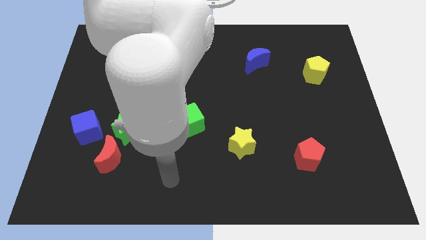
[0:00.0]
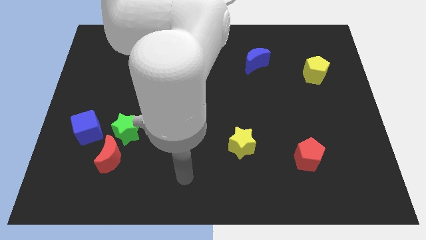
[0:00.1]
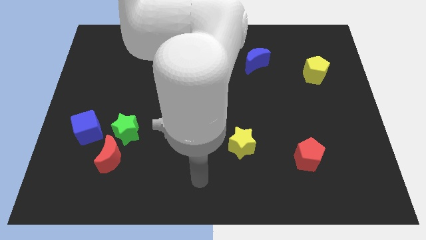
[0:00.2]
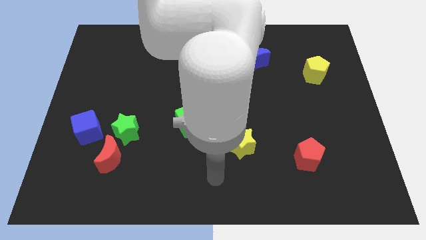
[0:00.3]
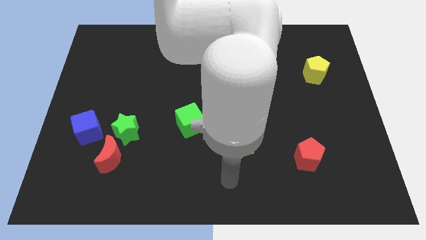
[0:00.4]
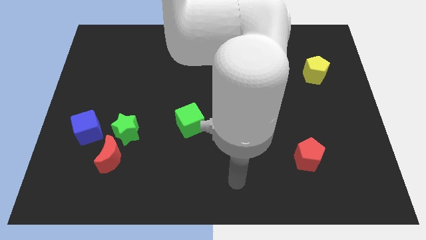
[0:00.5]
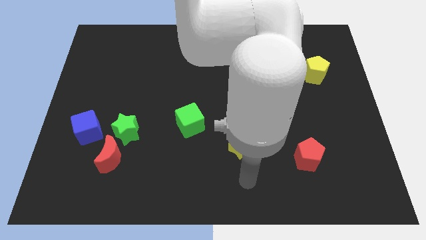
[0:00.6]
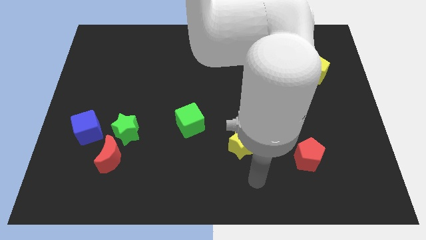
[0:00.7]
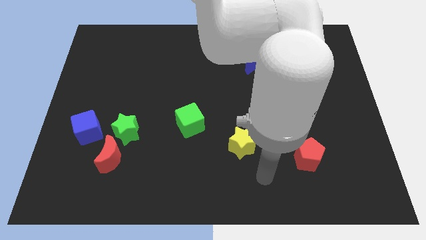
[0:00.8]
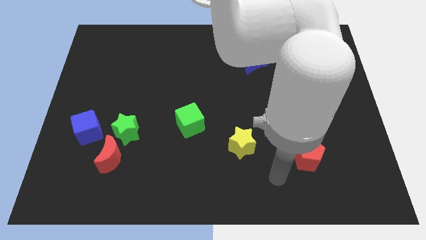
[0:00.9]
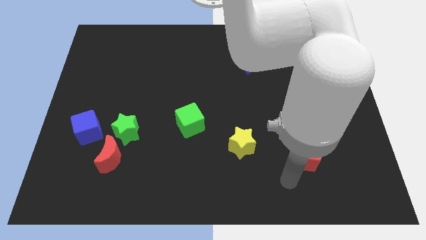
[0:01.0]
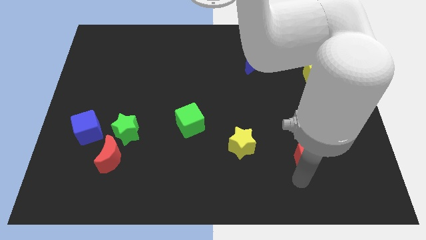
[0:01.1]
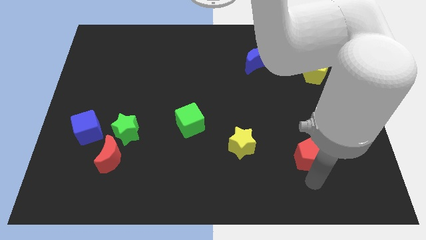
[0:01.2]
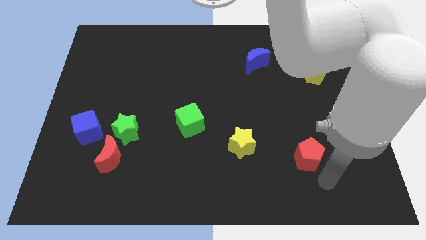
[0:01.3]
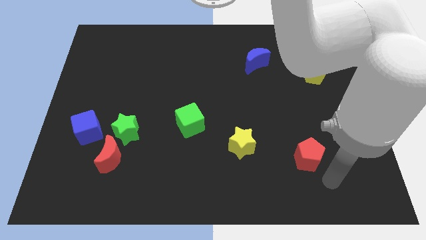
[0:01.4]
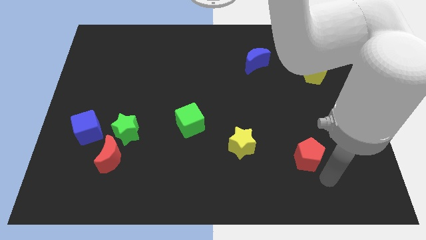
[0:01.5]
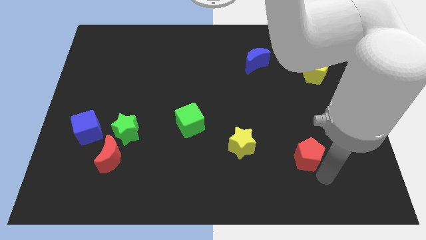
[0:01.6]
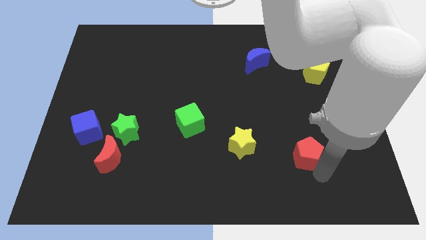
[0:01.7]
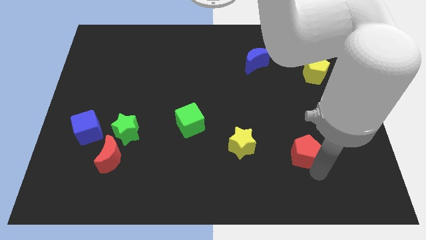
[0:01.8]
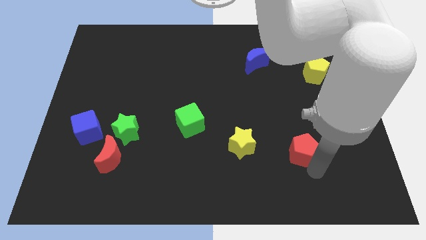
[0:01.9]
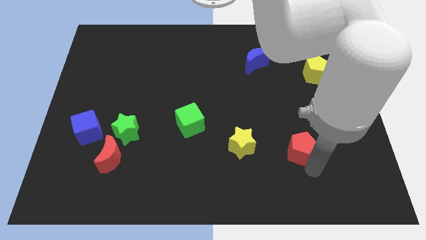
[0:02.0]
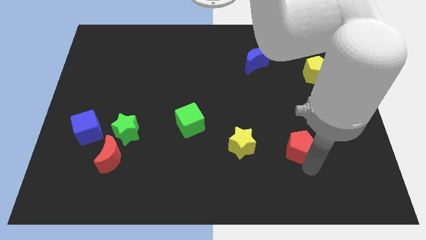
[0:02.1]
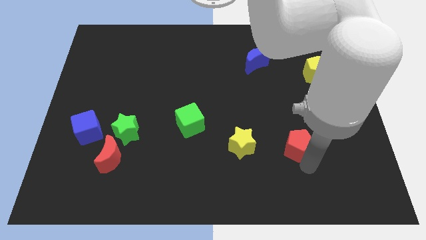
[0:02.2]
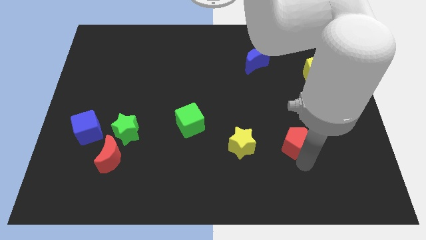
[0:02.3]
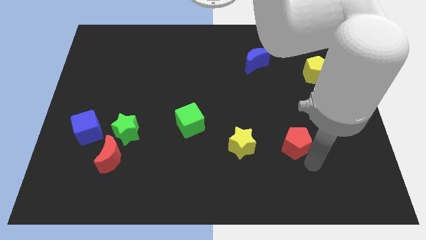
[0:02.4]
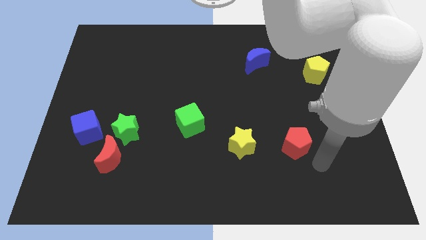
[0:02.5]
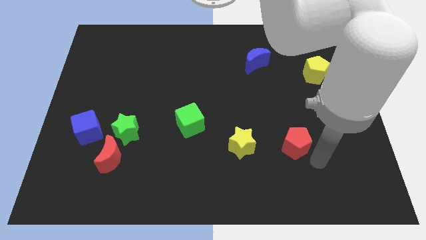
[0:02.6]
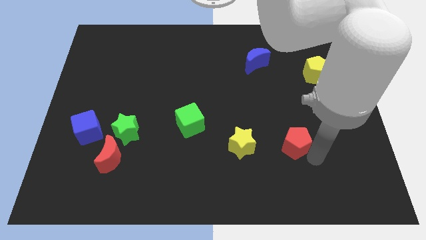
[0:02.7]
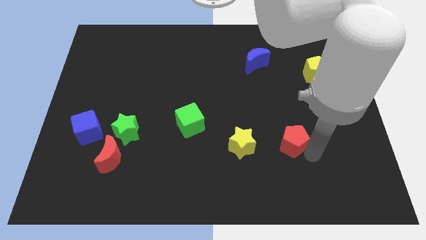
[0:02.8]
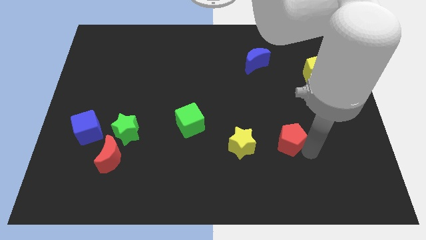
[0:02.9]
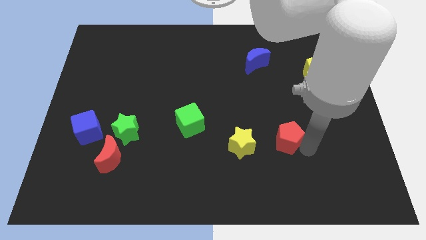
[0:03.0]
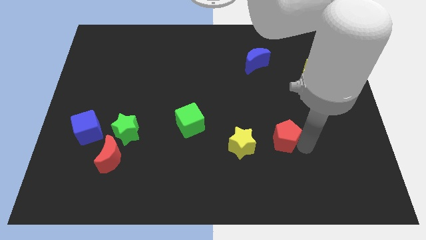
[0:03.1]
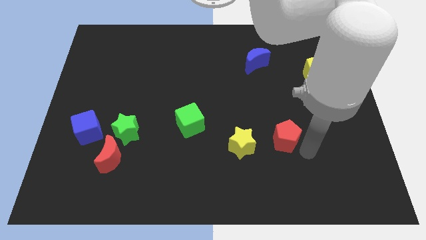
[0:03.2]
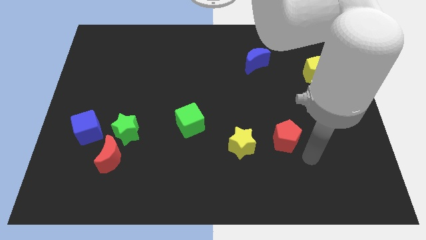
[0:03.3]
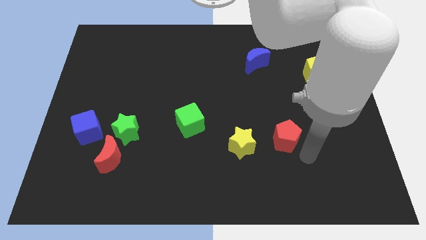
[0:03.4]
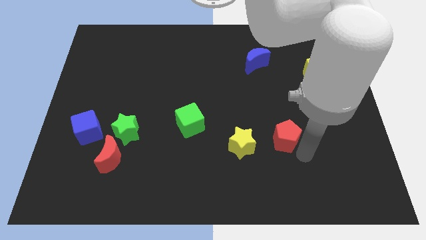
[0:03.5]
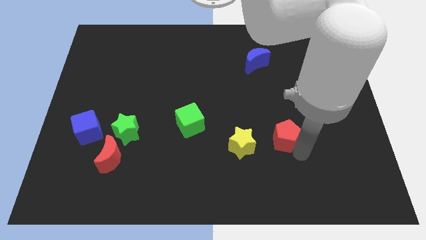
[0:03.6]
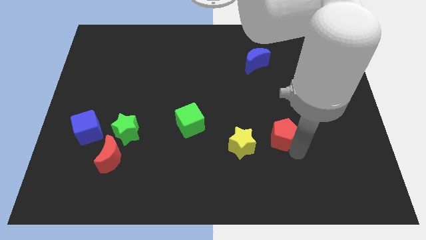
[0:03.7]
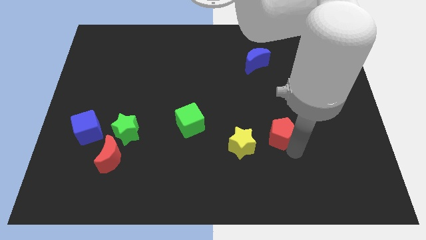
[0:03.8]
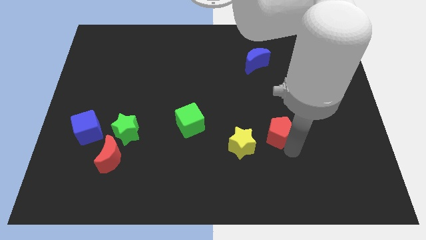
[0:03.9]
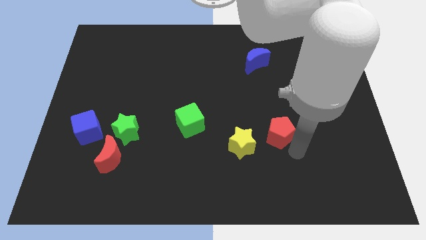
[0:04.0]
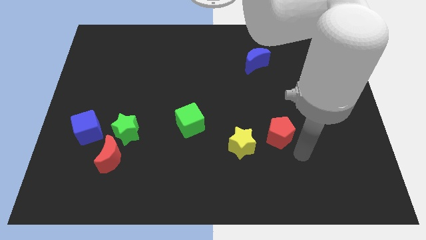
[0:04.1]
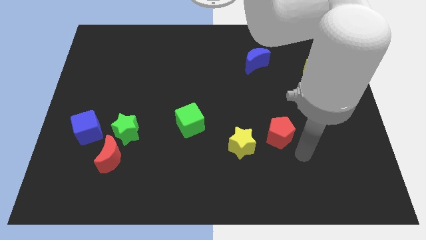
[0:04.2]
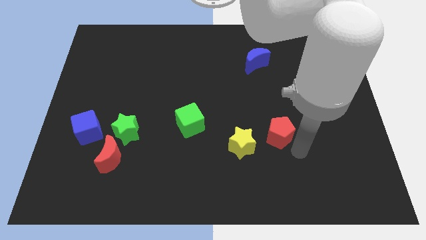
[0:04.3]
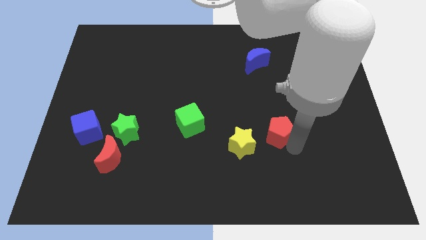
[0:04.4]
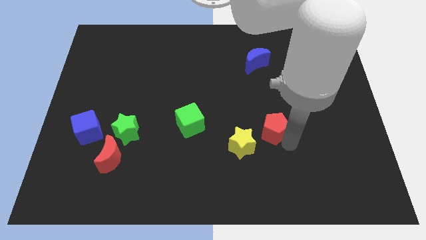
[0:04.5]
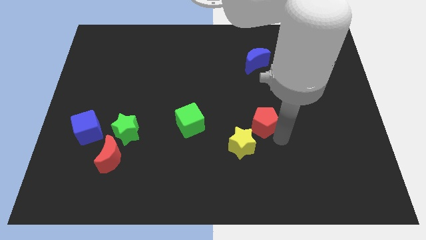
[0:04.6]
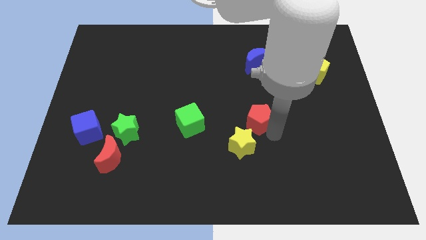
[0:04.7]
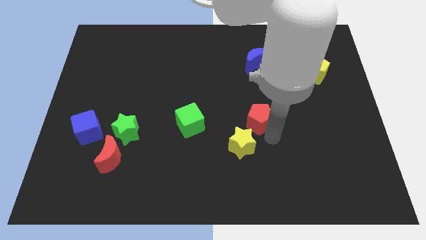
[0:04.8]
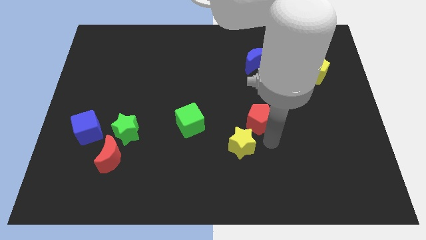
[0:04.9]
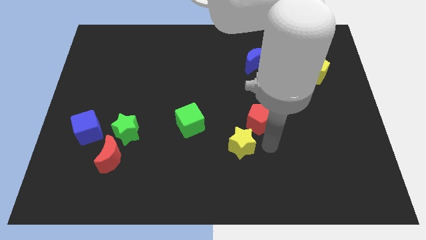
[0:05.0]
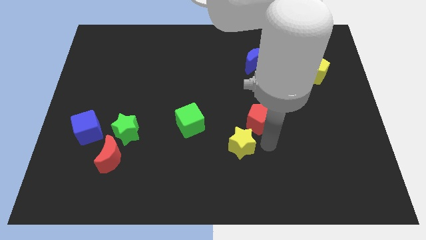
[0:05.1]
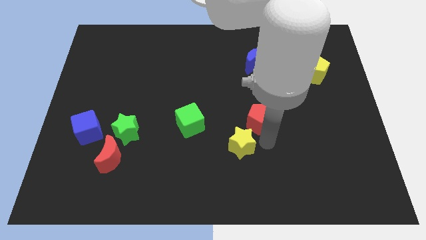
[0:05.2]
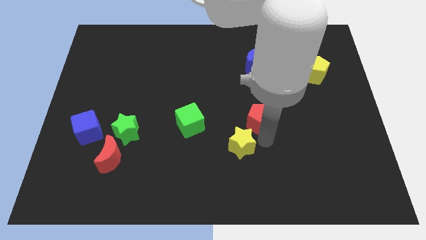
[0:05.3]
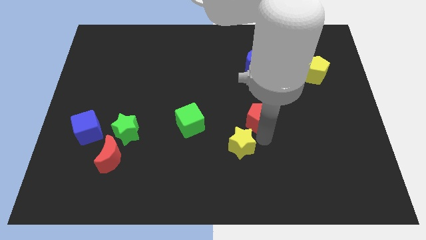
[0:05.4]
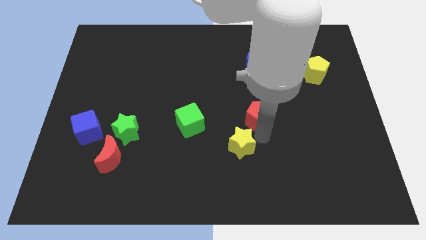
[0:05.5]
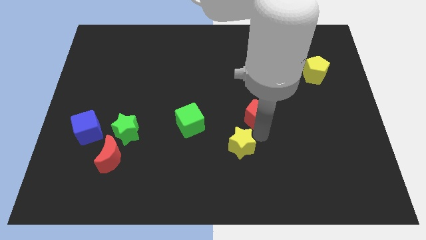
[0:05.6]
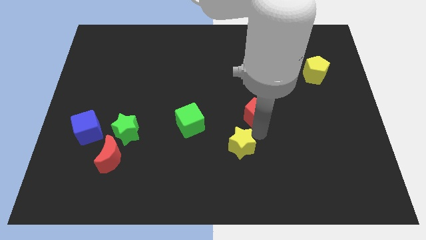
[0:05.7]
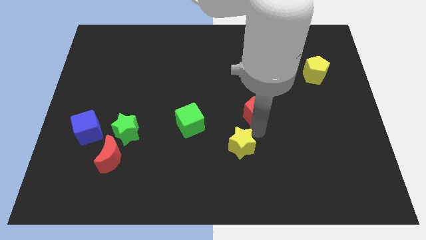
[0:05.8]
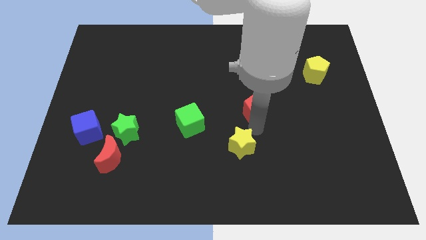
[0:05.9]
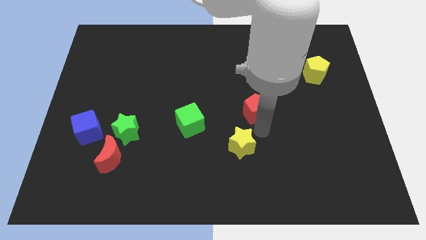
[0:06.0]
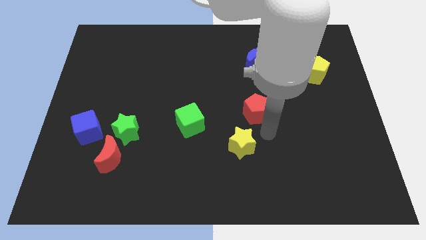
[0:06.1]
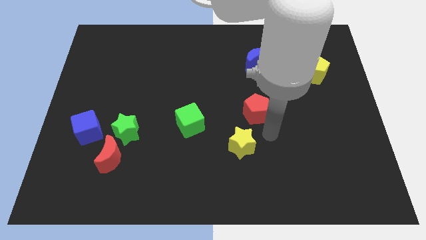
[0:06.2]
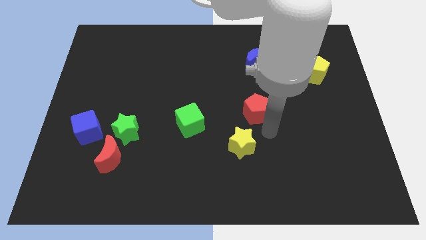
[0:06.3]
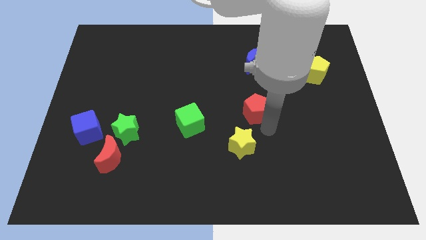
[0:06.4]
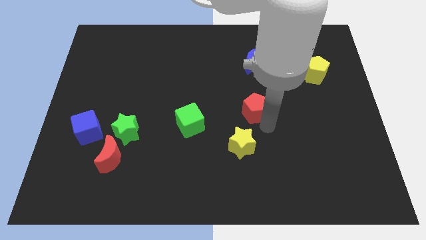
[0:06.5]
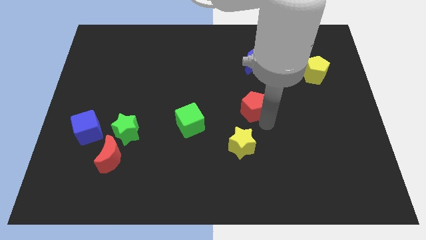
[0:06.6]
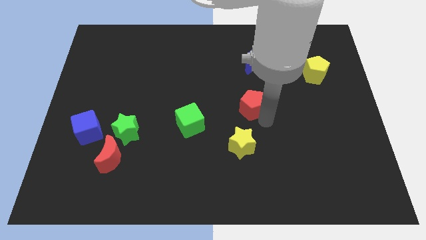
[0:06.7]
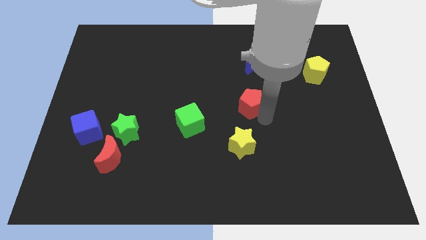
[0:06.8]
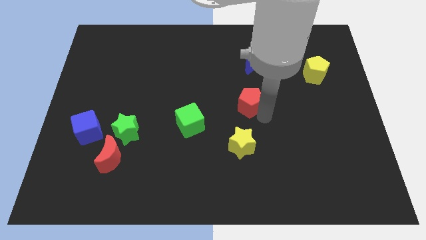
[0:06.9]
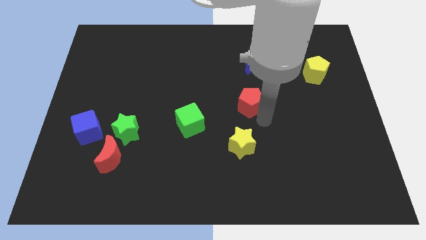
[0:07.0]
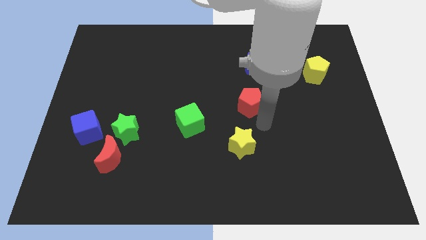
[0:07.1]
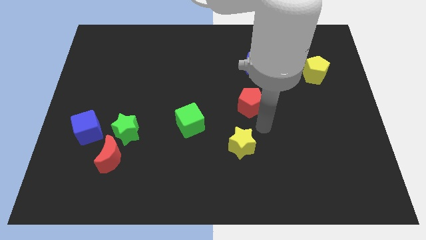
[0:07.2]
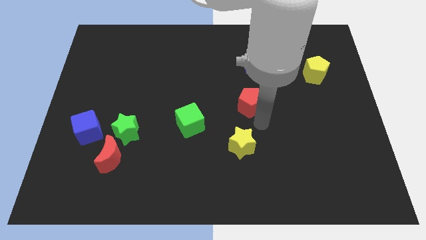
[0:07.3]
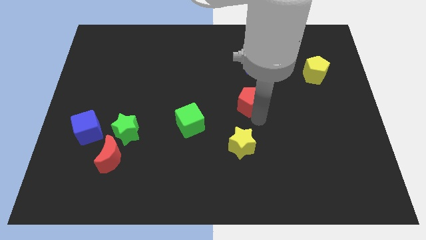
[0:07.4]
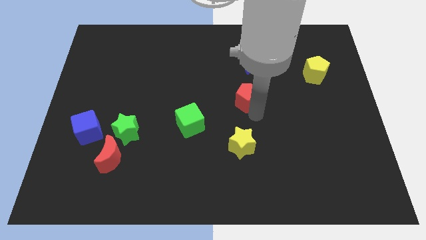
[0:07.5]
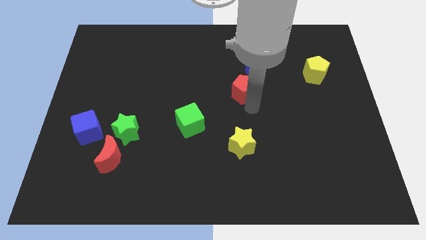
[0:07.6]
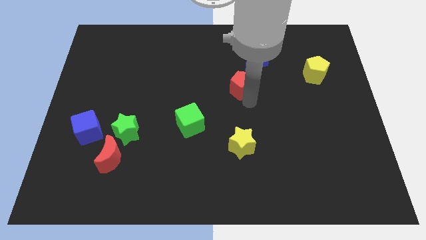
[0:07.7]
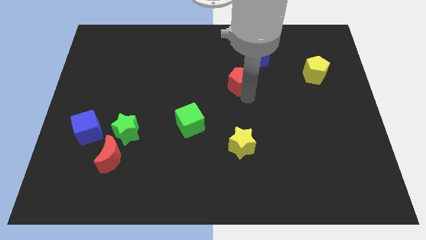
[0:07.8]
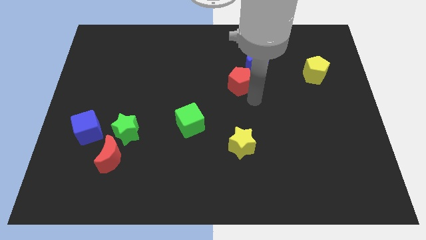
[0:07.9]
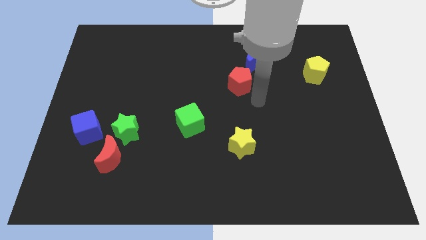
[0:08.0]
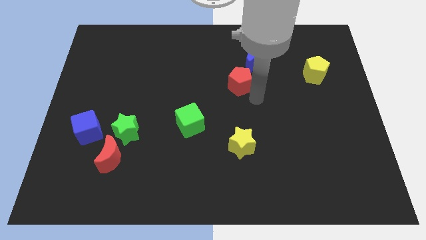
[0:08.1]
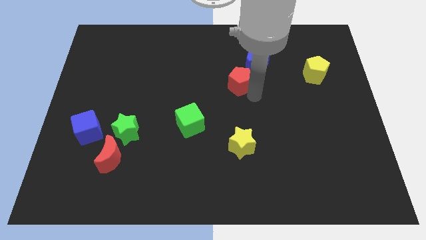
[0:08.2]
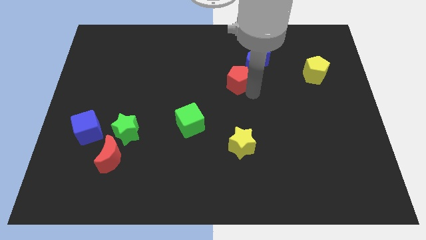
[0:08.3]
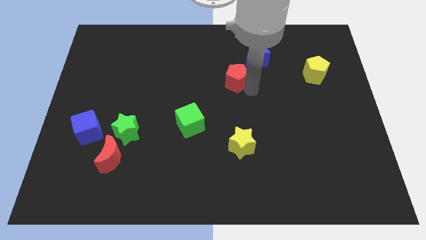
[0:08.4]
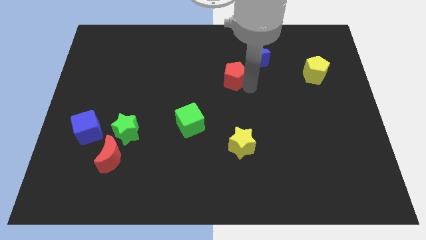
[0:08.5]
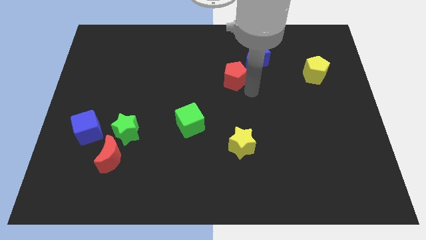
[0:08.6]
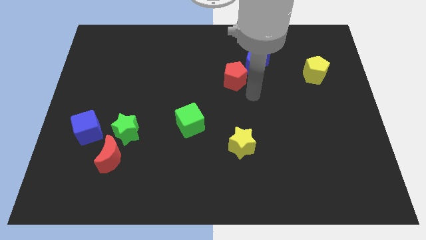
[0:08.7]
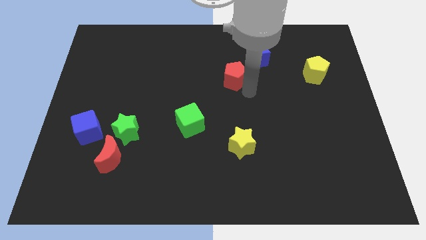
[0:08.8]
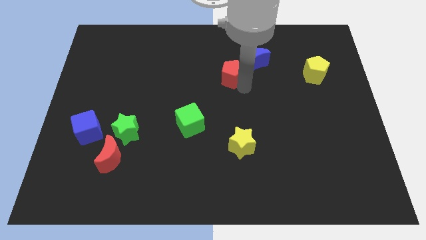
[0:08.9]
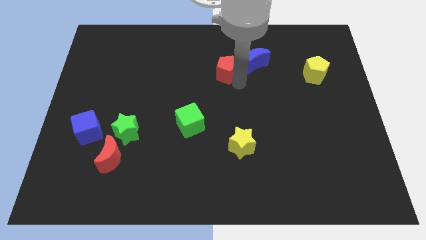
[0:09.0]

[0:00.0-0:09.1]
put the red pentagon left of the blue moon
